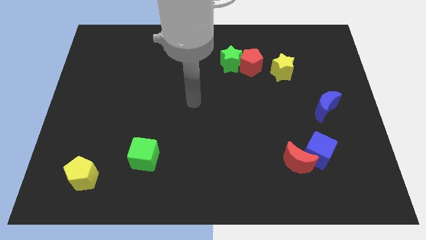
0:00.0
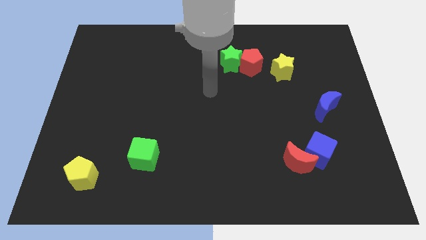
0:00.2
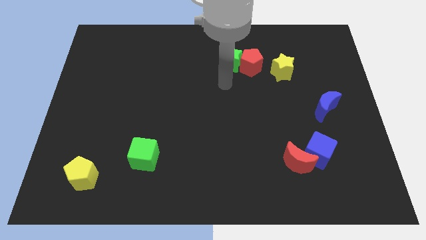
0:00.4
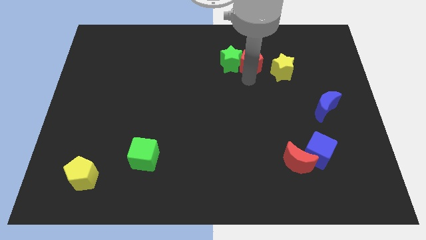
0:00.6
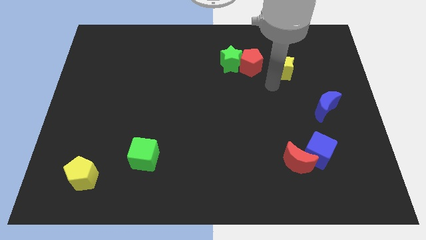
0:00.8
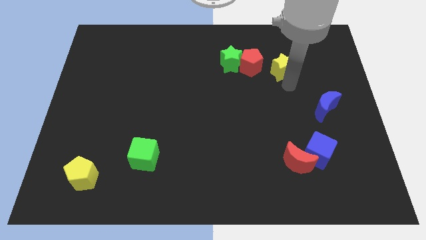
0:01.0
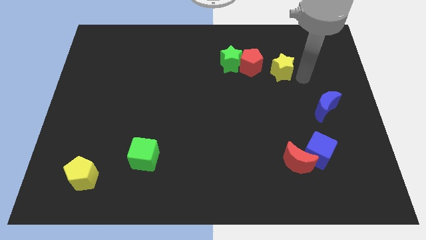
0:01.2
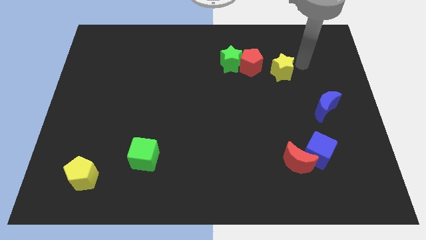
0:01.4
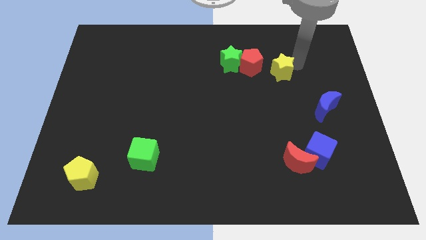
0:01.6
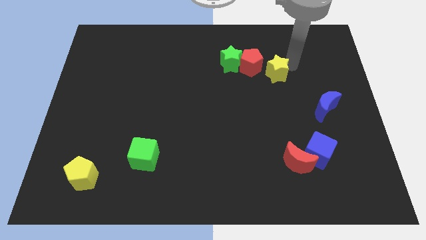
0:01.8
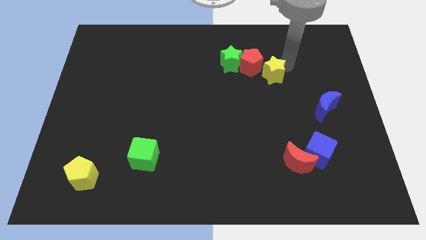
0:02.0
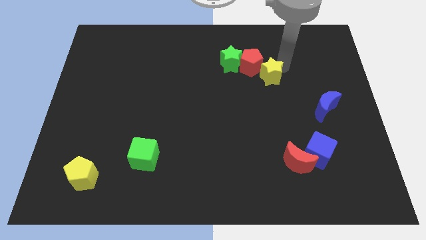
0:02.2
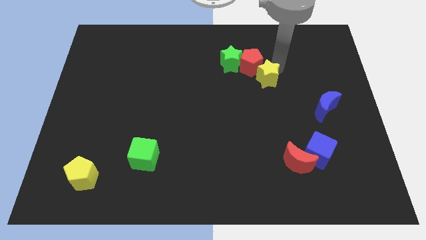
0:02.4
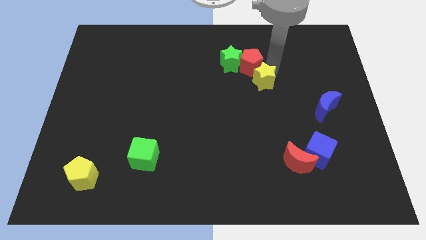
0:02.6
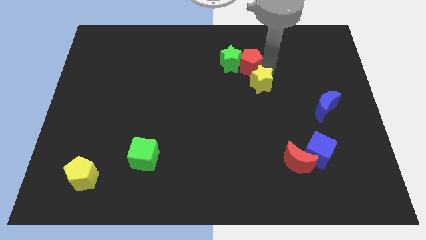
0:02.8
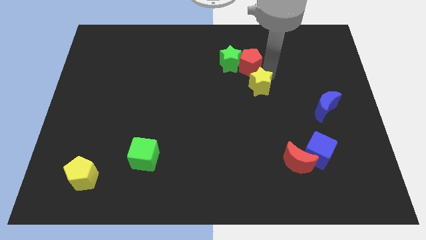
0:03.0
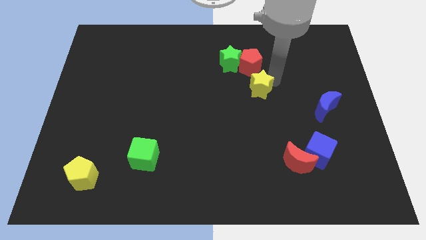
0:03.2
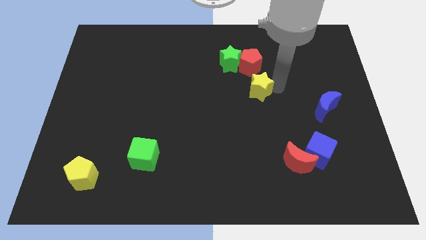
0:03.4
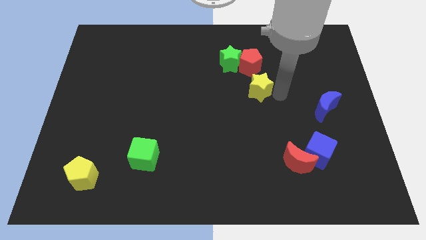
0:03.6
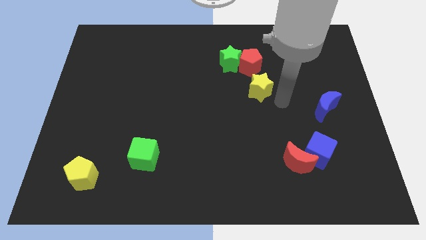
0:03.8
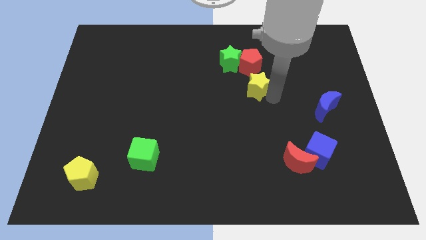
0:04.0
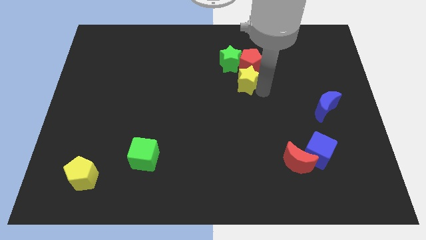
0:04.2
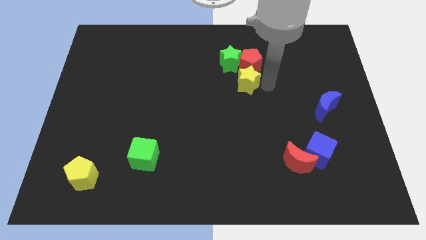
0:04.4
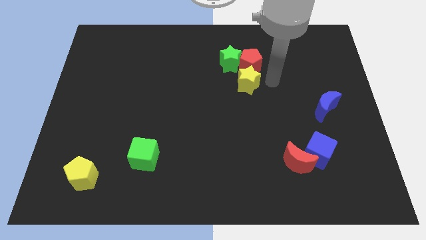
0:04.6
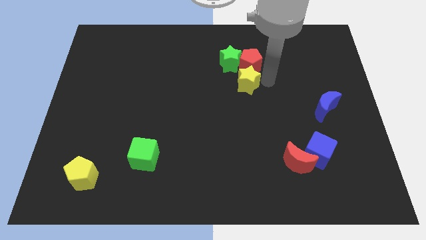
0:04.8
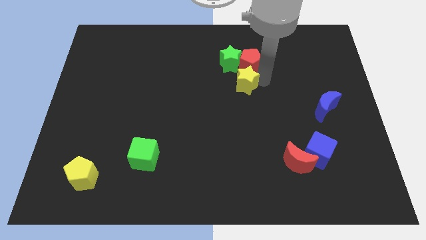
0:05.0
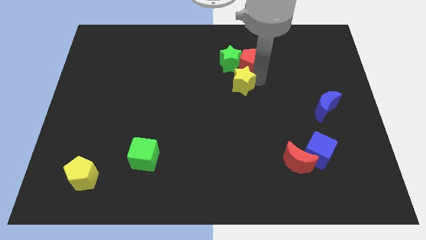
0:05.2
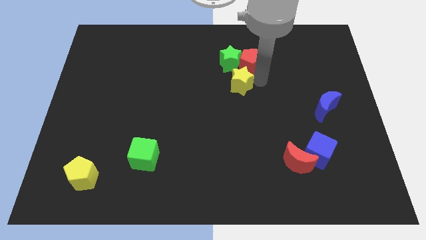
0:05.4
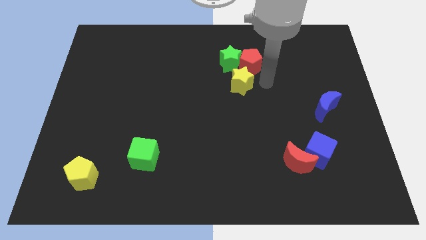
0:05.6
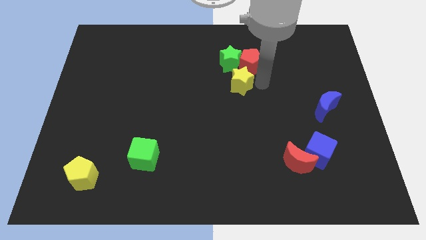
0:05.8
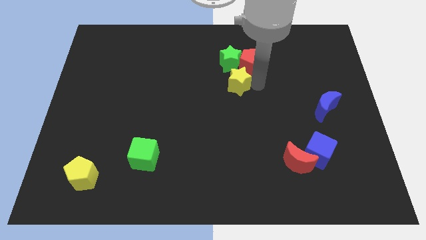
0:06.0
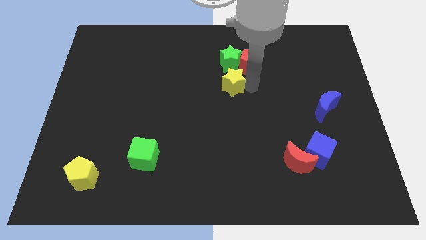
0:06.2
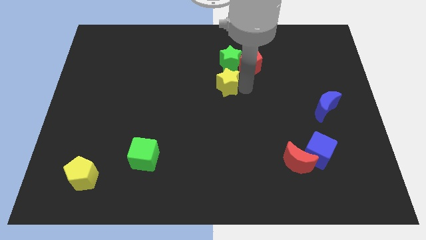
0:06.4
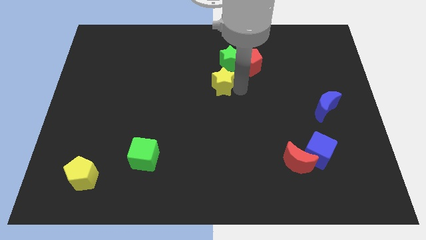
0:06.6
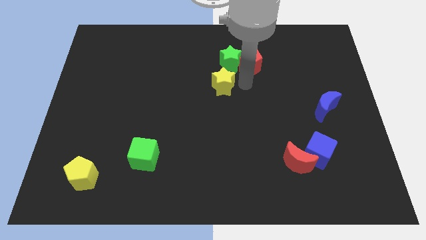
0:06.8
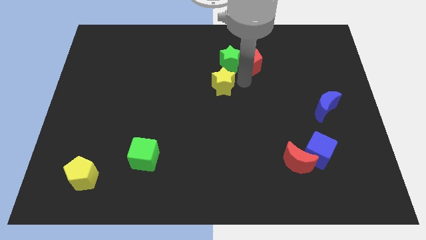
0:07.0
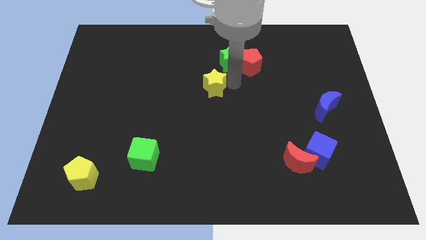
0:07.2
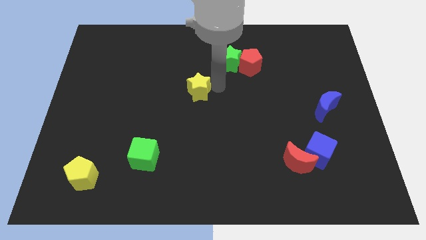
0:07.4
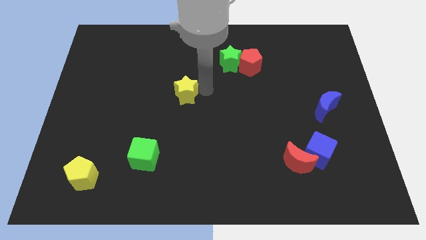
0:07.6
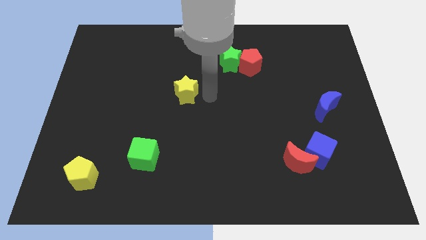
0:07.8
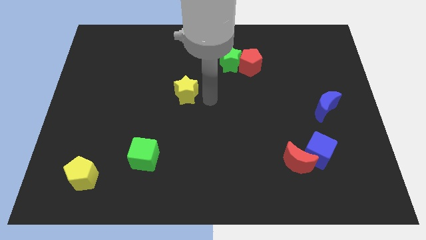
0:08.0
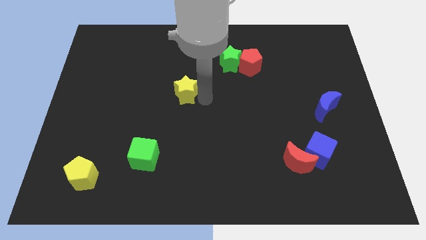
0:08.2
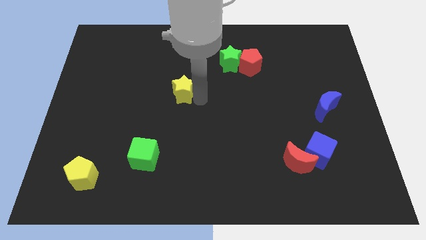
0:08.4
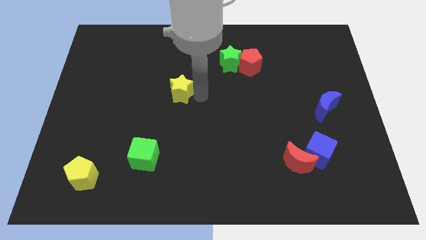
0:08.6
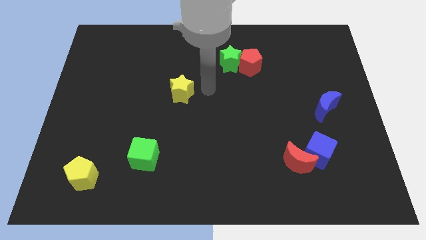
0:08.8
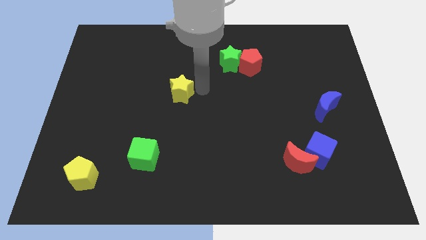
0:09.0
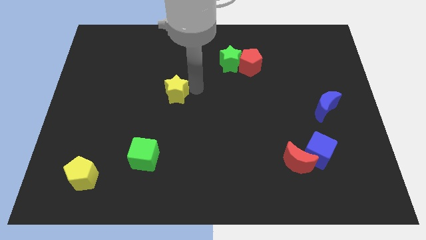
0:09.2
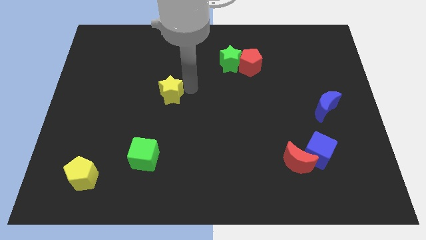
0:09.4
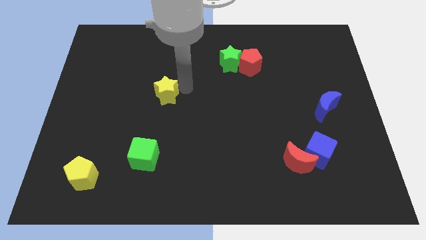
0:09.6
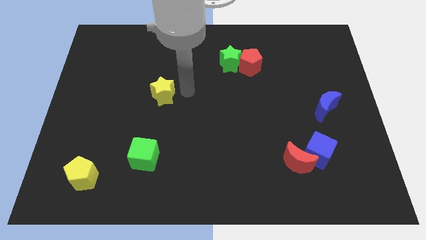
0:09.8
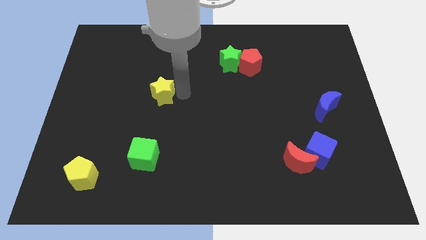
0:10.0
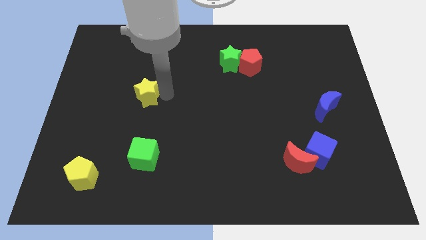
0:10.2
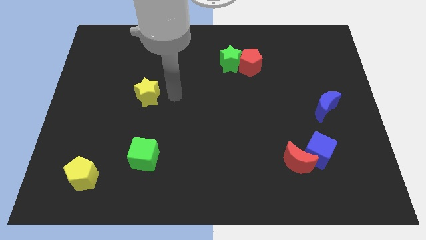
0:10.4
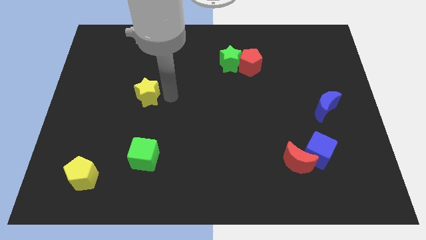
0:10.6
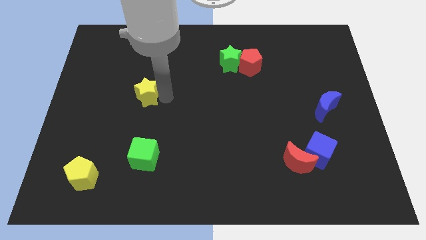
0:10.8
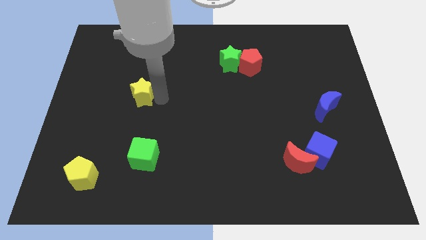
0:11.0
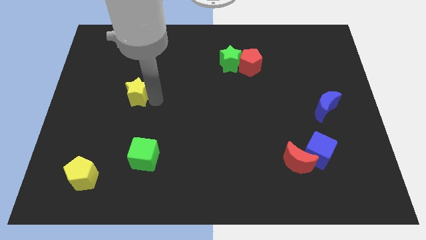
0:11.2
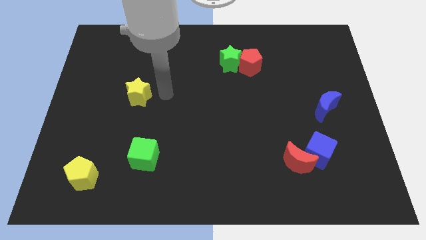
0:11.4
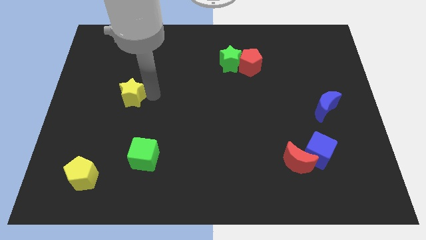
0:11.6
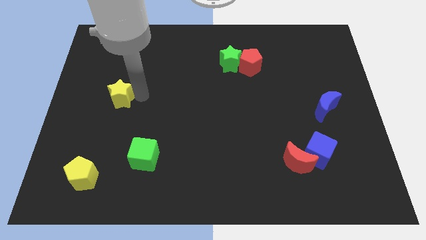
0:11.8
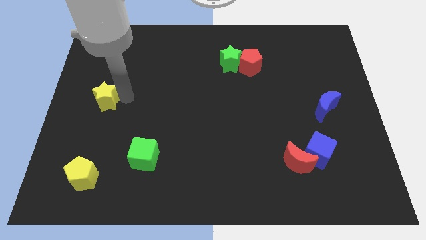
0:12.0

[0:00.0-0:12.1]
move the yellow star to the left side of the board

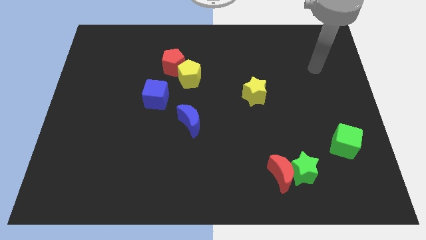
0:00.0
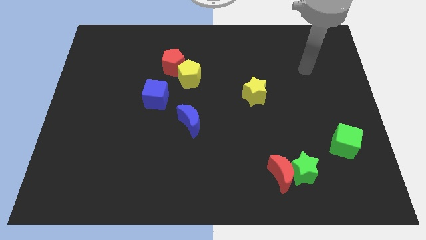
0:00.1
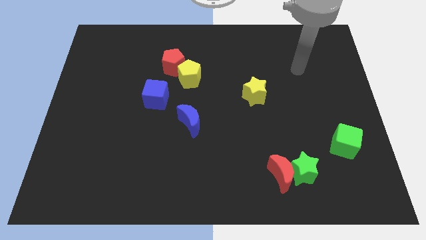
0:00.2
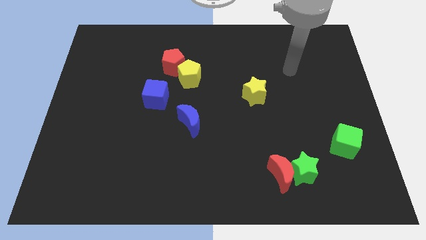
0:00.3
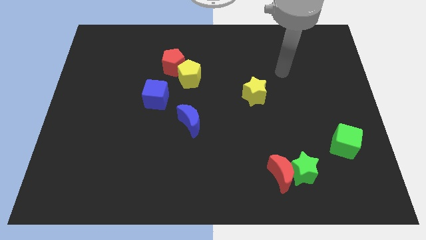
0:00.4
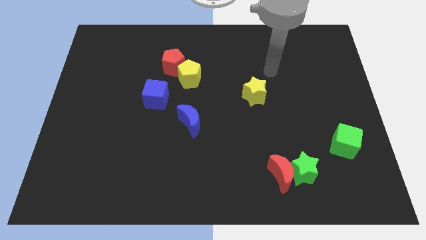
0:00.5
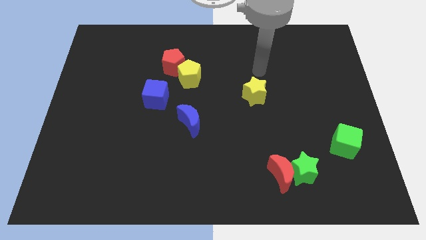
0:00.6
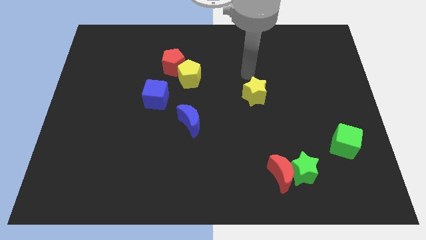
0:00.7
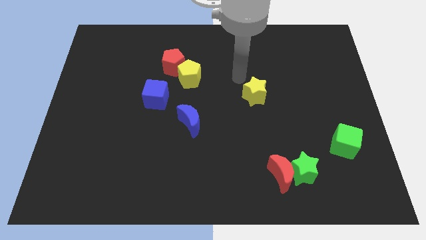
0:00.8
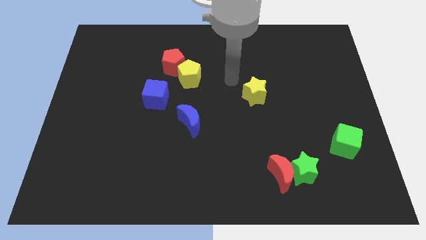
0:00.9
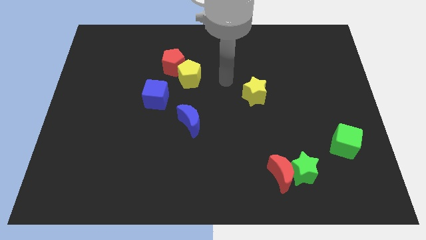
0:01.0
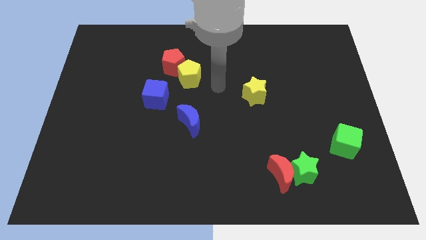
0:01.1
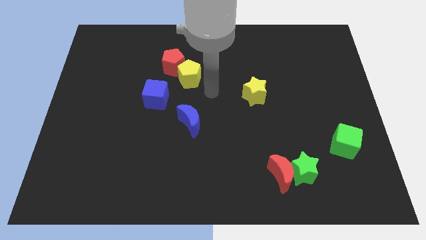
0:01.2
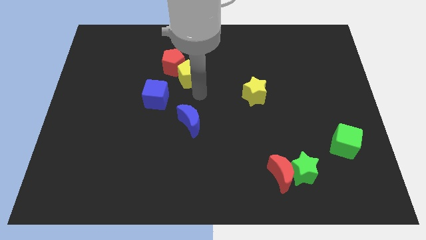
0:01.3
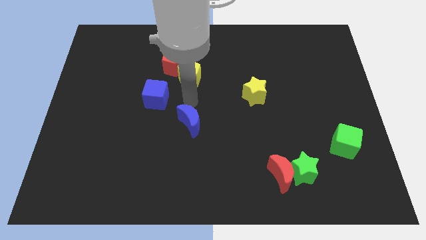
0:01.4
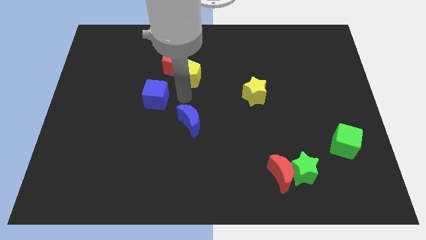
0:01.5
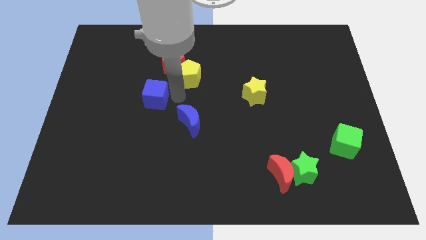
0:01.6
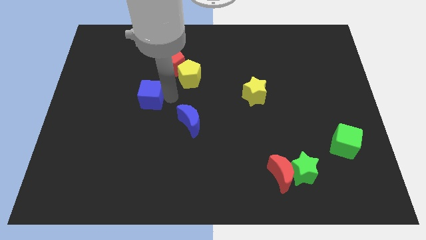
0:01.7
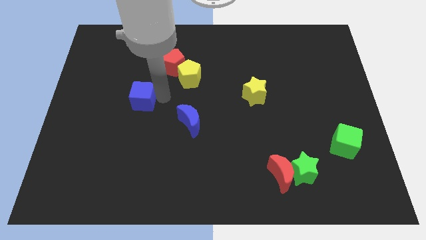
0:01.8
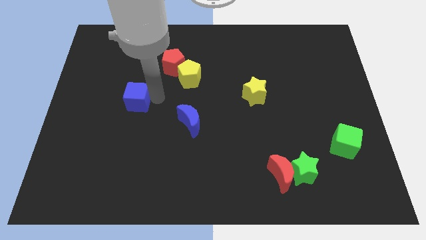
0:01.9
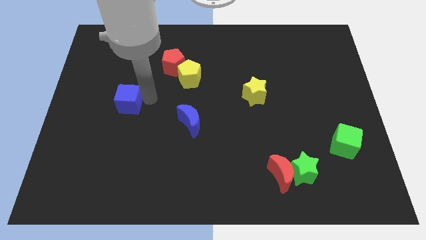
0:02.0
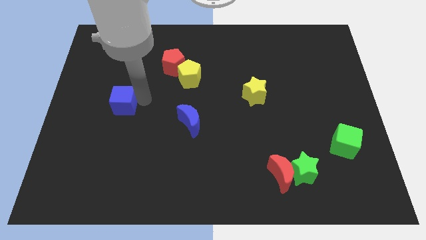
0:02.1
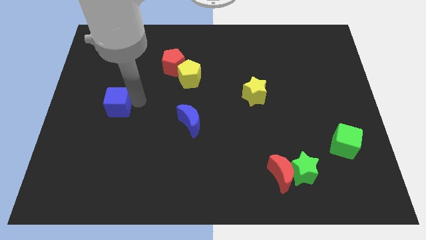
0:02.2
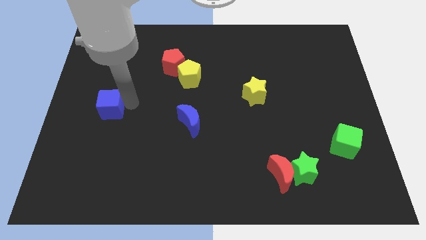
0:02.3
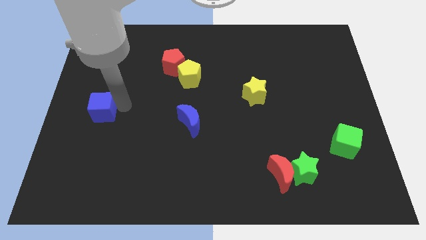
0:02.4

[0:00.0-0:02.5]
slide the blue cube to the center left
